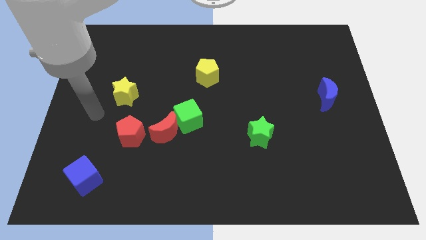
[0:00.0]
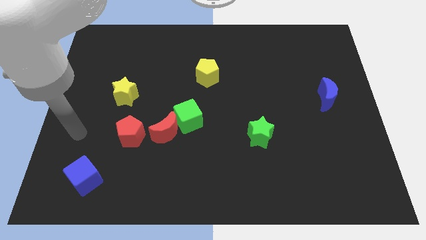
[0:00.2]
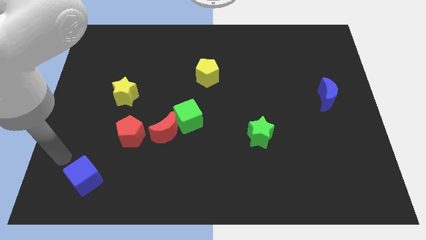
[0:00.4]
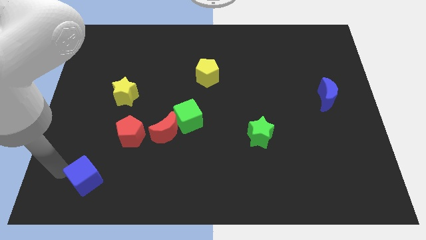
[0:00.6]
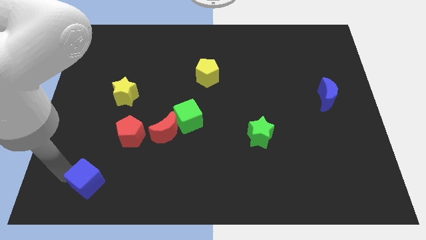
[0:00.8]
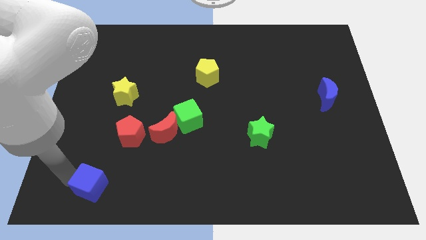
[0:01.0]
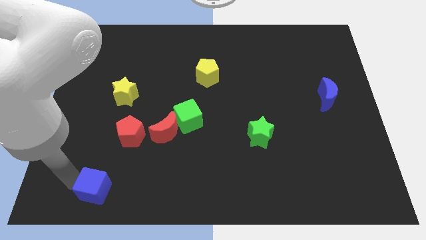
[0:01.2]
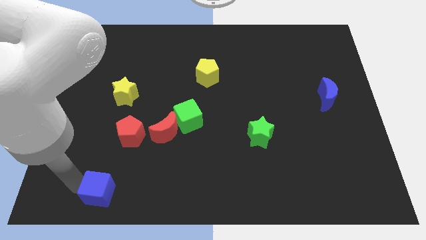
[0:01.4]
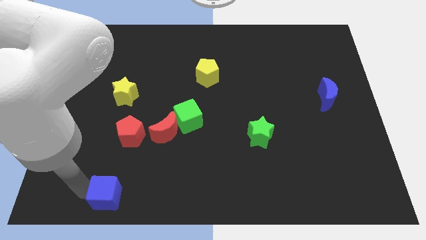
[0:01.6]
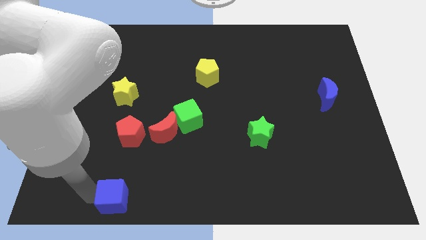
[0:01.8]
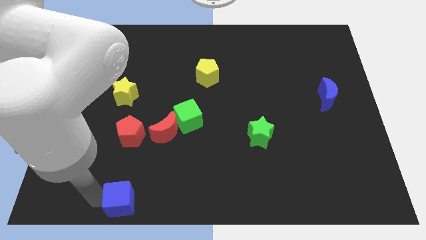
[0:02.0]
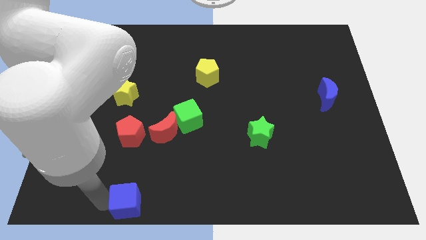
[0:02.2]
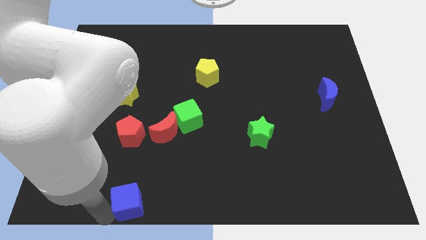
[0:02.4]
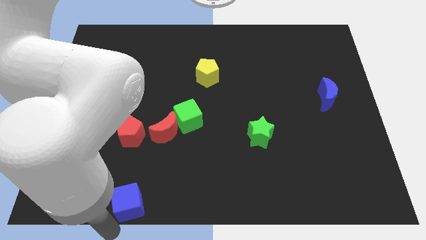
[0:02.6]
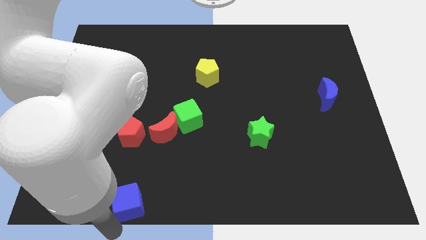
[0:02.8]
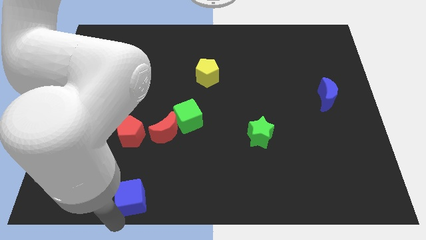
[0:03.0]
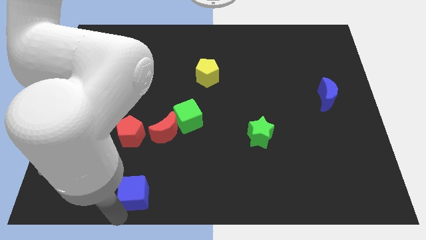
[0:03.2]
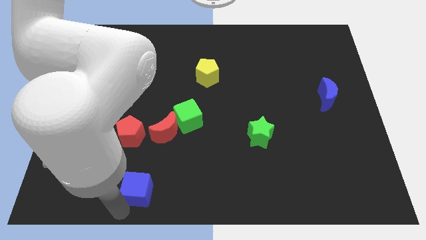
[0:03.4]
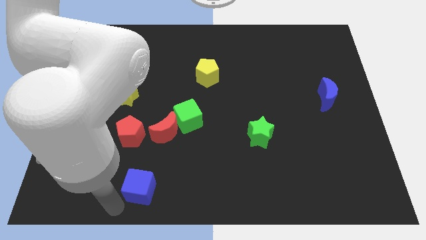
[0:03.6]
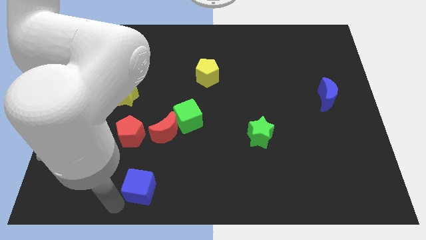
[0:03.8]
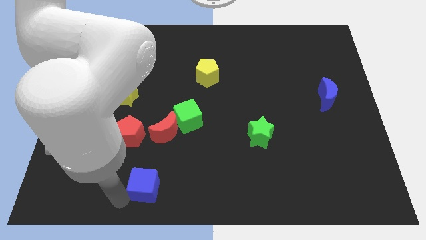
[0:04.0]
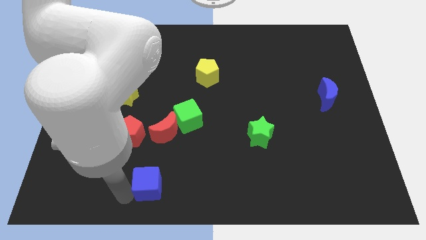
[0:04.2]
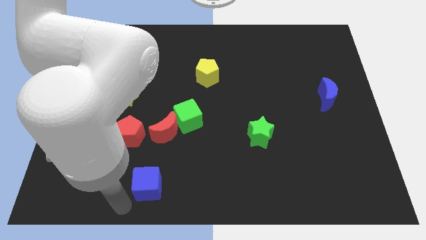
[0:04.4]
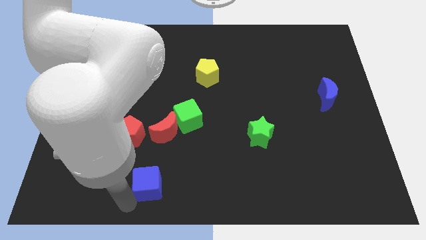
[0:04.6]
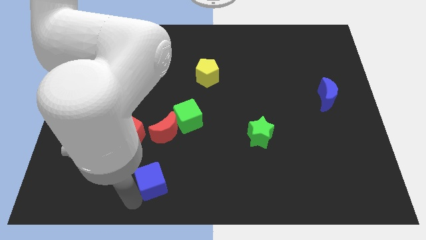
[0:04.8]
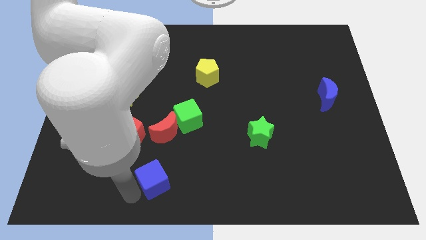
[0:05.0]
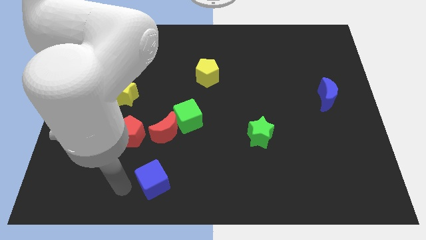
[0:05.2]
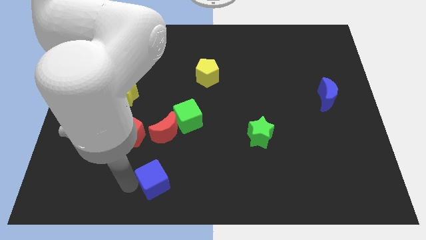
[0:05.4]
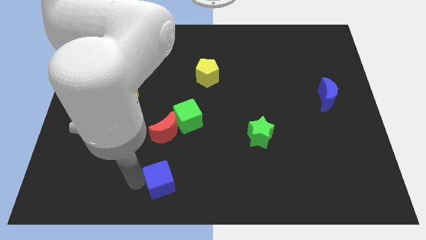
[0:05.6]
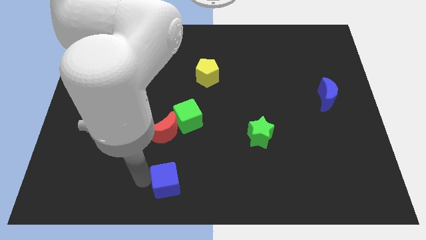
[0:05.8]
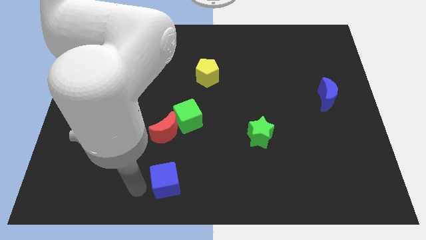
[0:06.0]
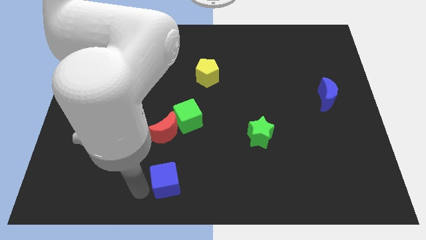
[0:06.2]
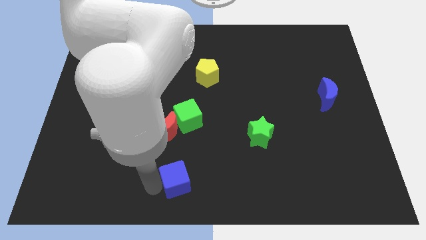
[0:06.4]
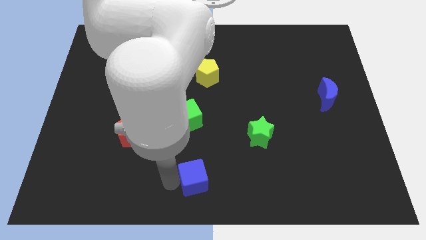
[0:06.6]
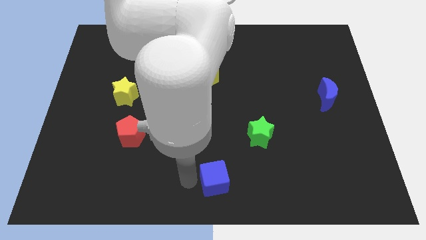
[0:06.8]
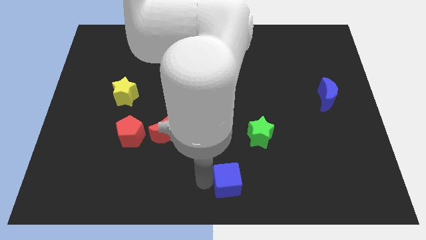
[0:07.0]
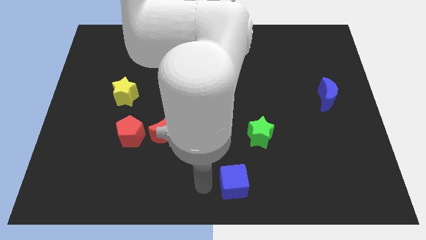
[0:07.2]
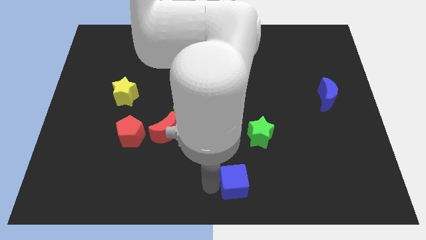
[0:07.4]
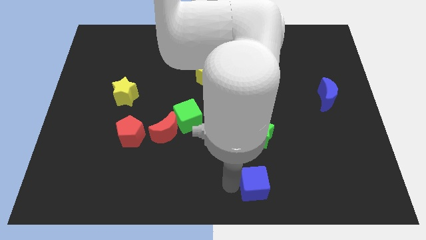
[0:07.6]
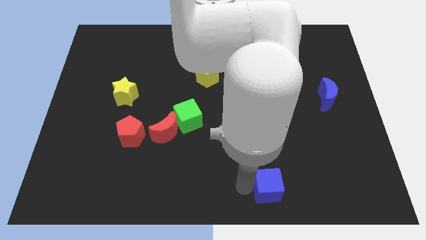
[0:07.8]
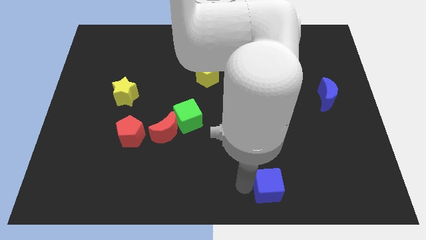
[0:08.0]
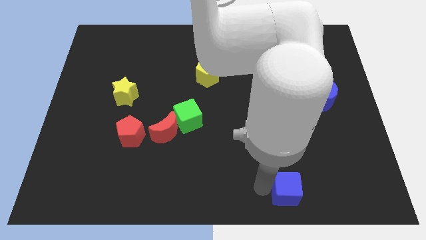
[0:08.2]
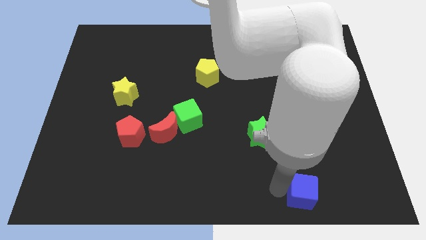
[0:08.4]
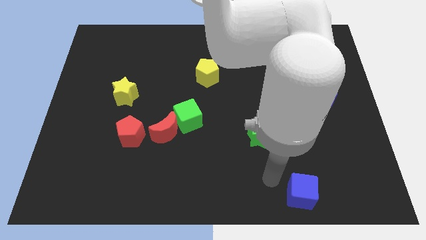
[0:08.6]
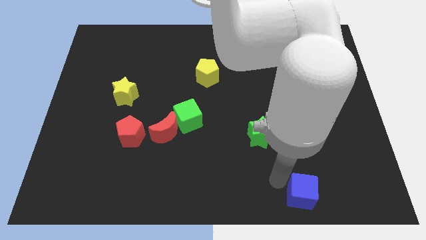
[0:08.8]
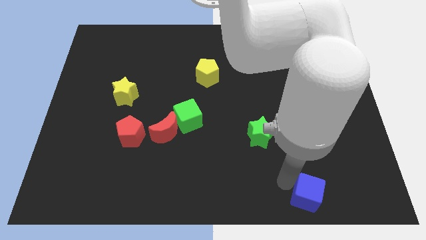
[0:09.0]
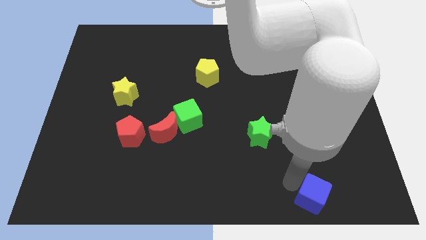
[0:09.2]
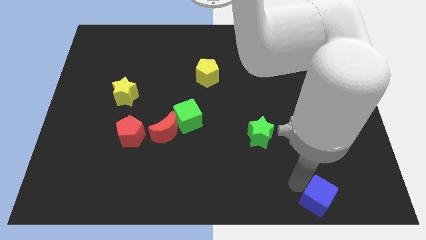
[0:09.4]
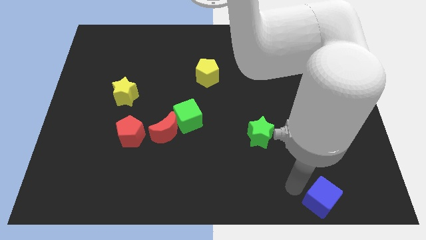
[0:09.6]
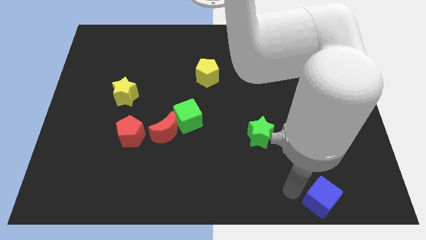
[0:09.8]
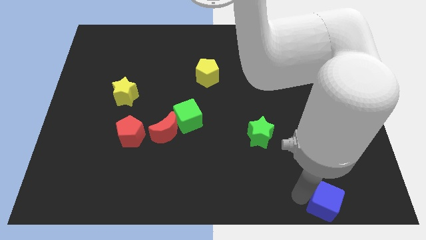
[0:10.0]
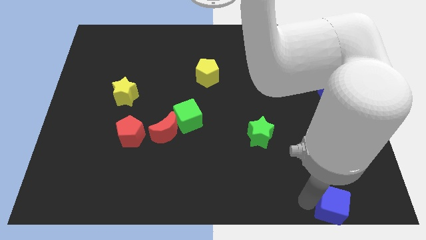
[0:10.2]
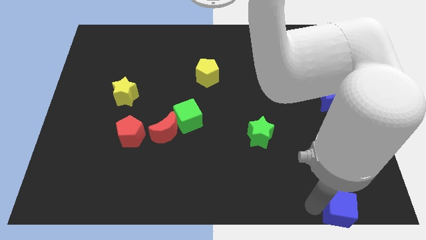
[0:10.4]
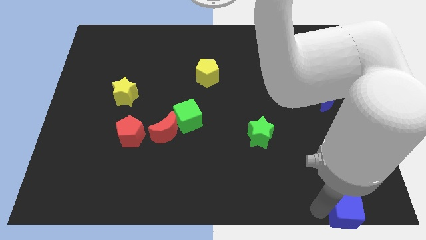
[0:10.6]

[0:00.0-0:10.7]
slide the blue cube to the bottom right

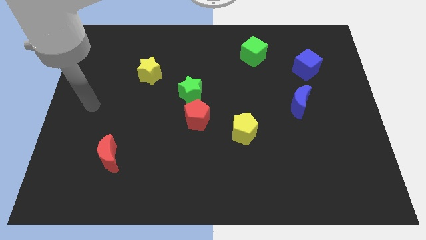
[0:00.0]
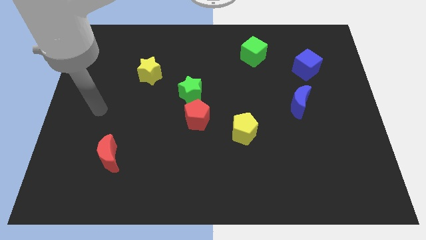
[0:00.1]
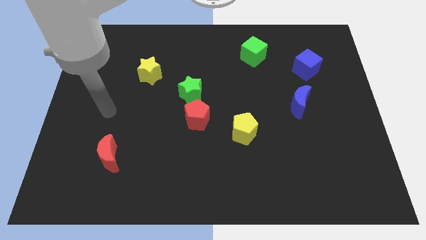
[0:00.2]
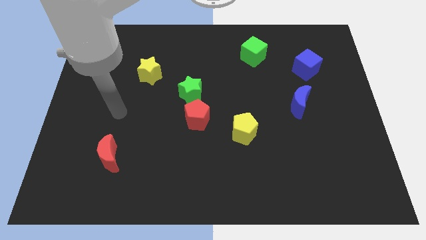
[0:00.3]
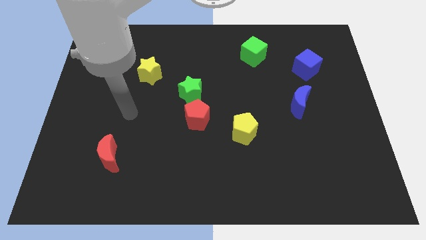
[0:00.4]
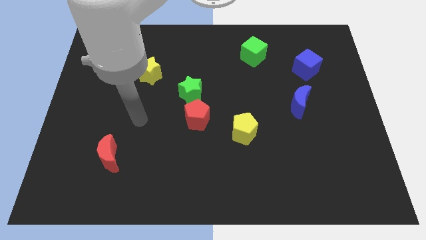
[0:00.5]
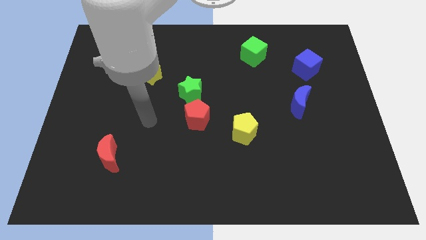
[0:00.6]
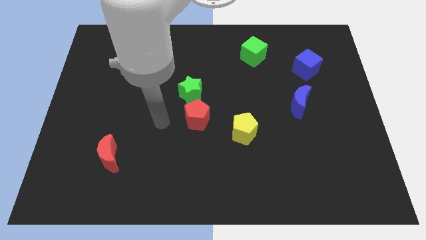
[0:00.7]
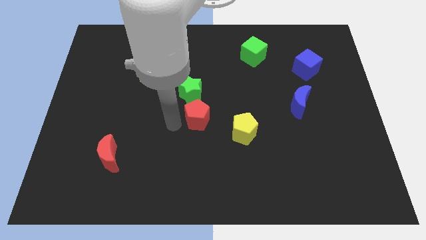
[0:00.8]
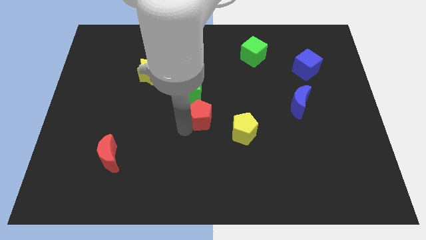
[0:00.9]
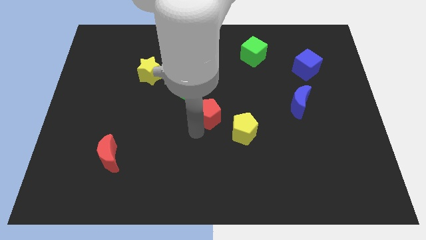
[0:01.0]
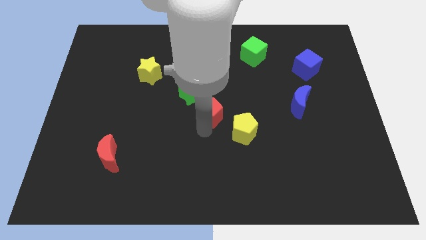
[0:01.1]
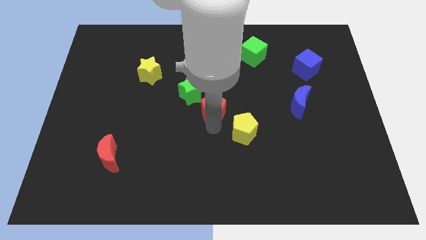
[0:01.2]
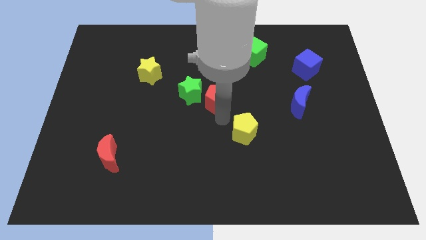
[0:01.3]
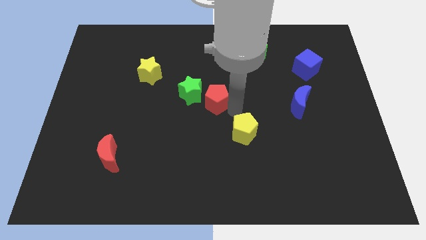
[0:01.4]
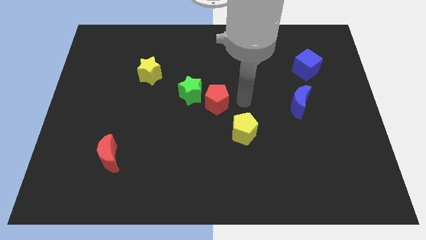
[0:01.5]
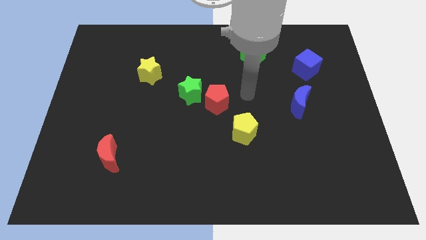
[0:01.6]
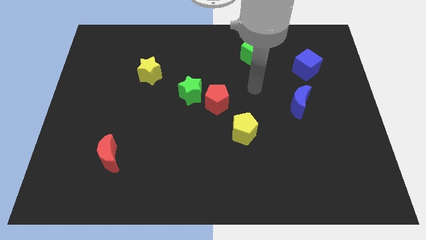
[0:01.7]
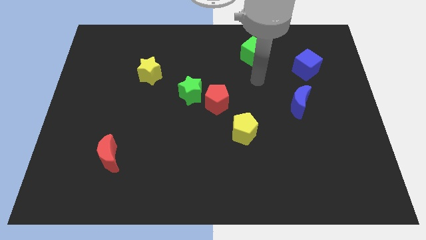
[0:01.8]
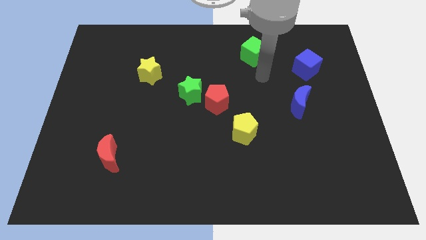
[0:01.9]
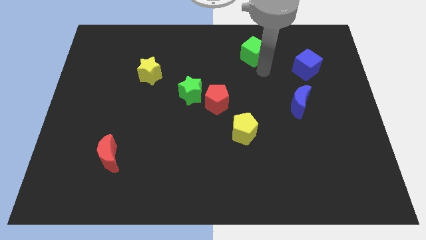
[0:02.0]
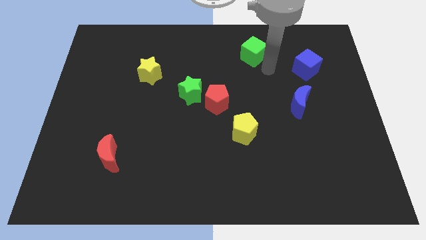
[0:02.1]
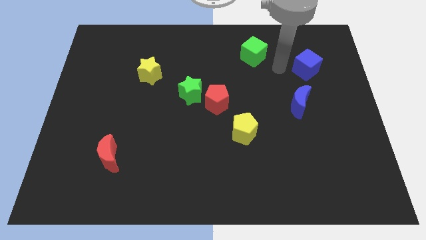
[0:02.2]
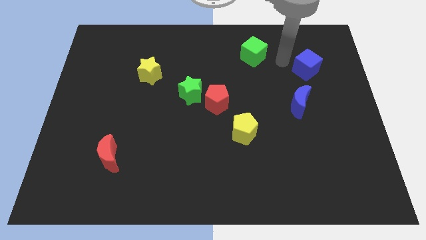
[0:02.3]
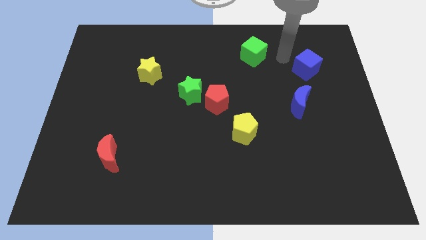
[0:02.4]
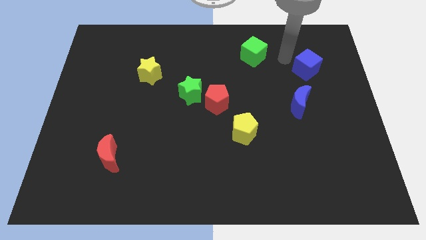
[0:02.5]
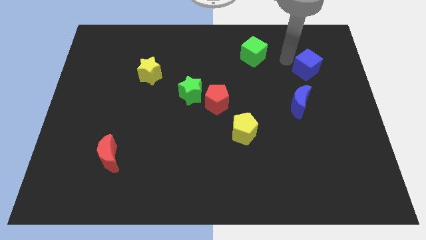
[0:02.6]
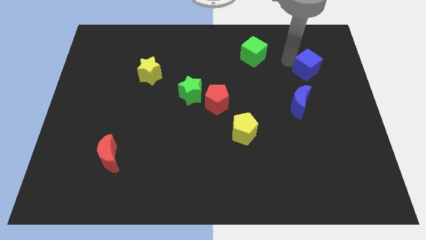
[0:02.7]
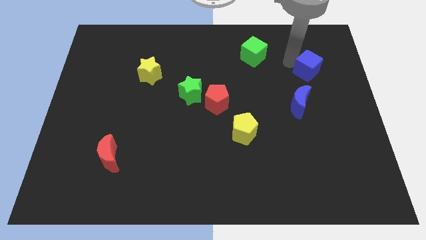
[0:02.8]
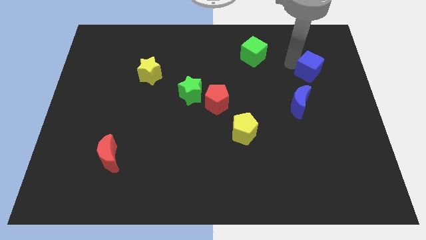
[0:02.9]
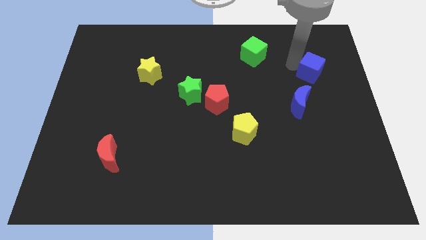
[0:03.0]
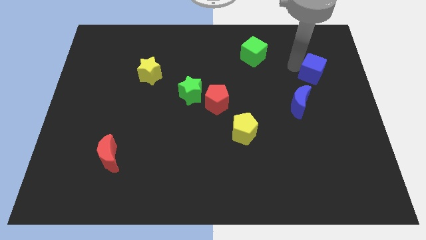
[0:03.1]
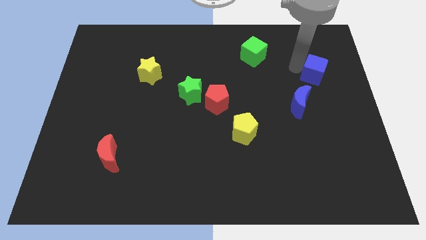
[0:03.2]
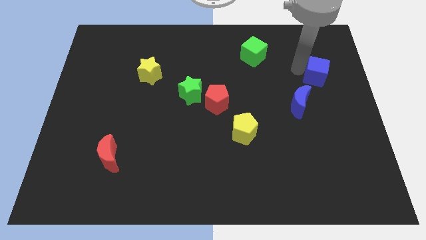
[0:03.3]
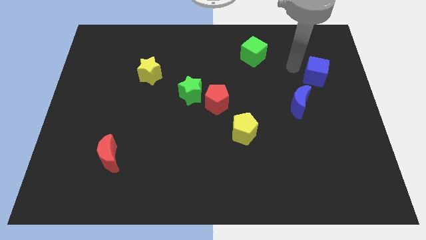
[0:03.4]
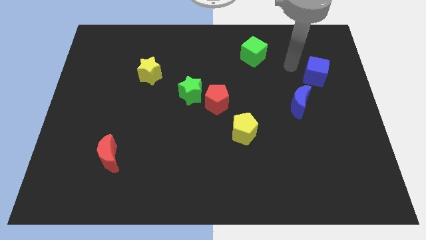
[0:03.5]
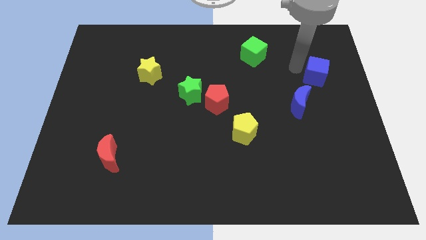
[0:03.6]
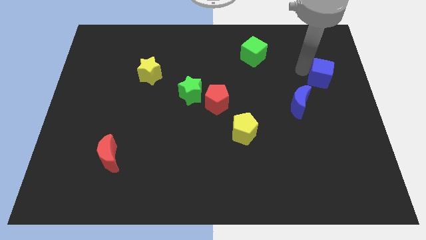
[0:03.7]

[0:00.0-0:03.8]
put the blue cube to the right side of the board
